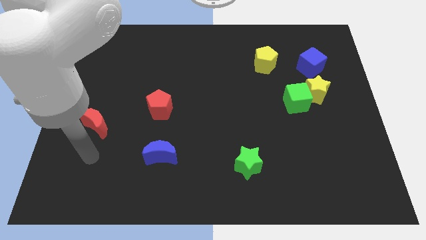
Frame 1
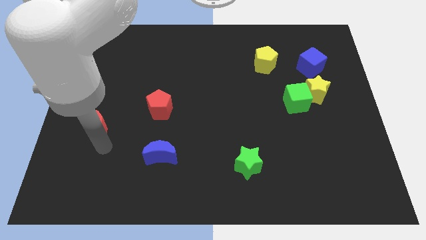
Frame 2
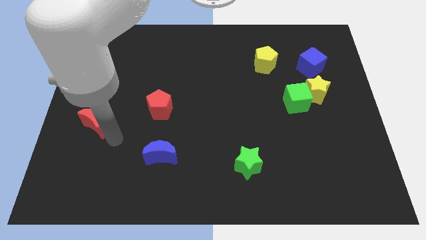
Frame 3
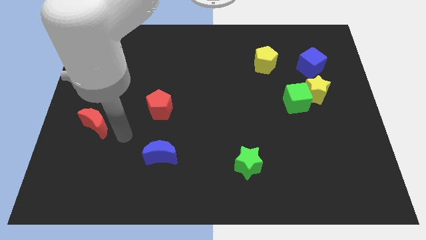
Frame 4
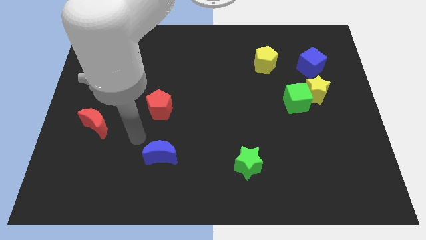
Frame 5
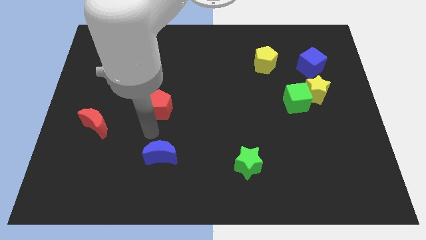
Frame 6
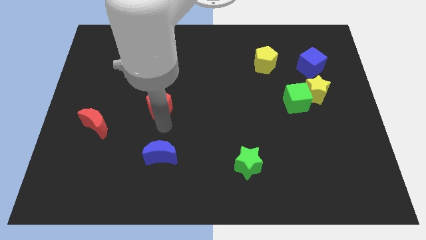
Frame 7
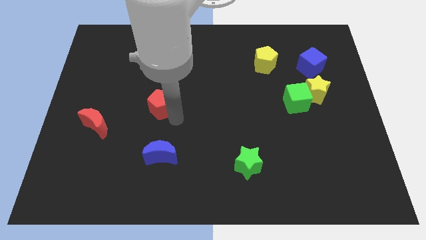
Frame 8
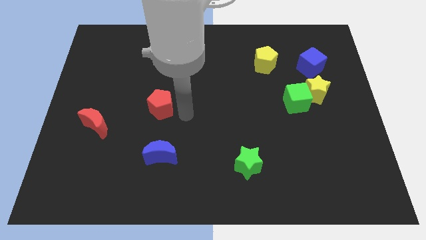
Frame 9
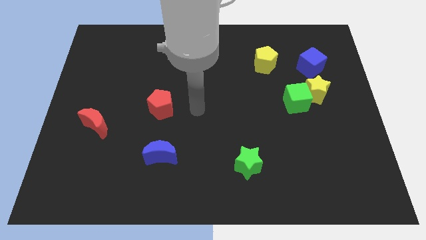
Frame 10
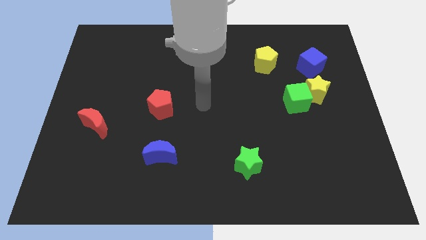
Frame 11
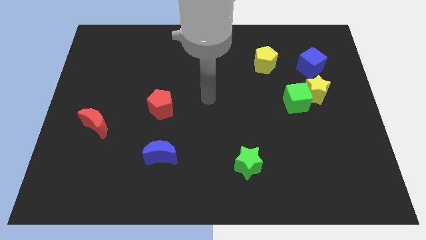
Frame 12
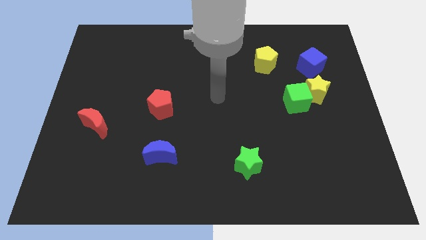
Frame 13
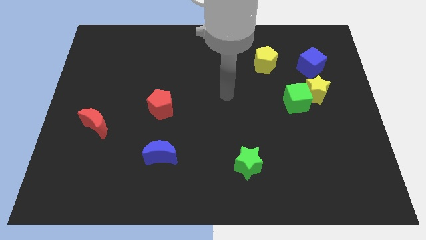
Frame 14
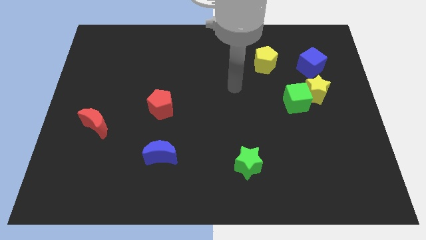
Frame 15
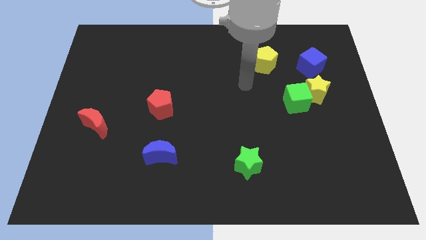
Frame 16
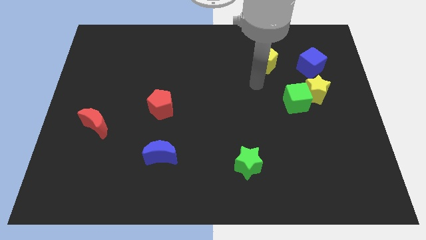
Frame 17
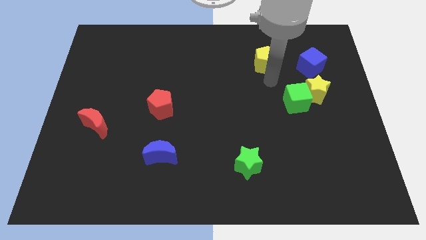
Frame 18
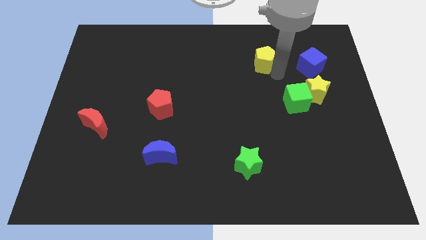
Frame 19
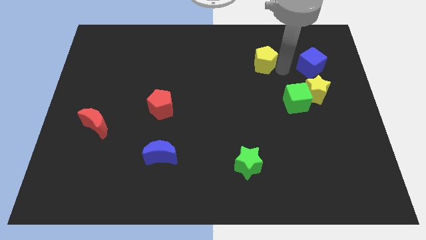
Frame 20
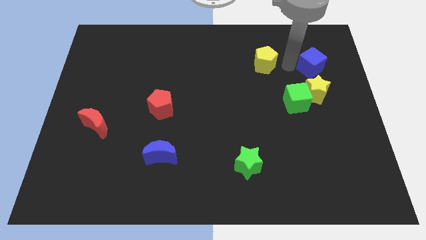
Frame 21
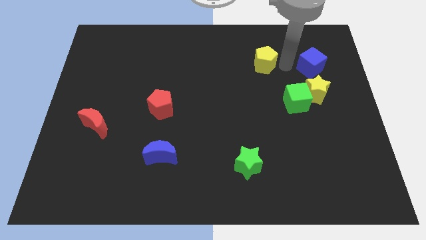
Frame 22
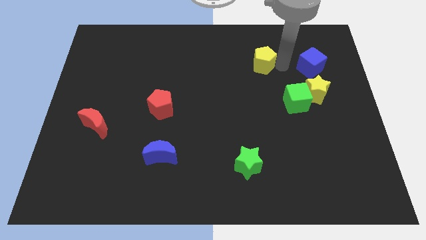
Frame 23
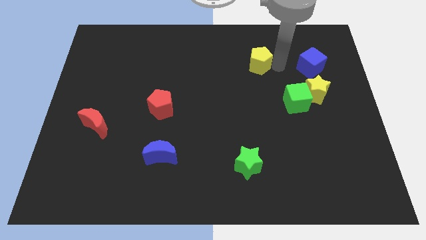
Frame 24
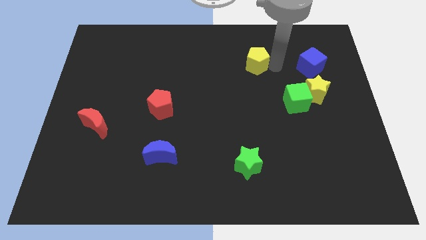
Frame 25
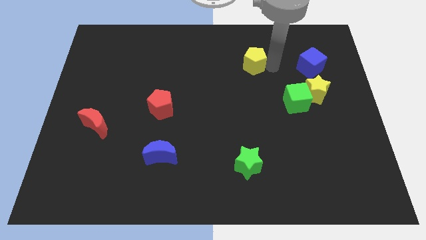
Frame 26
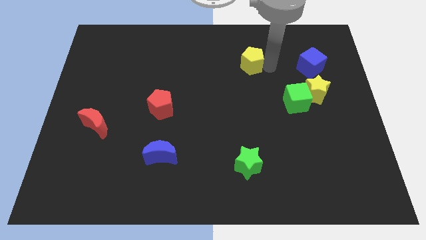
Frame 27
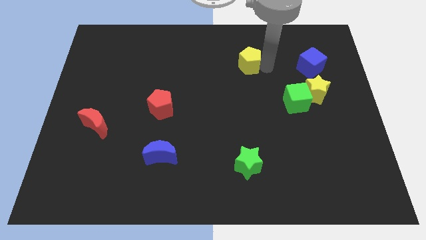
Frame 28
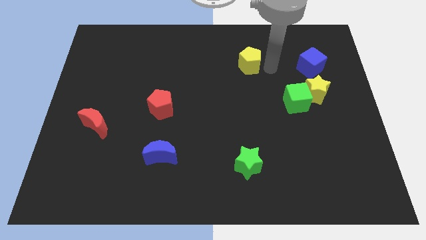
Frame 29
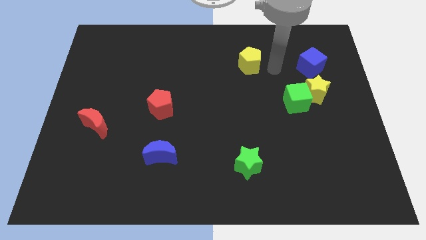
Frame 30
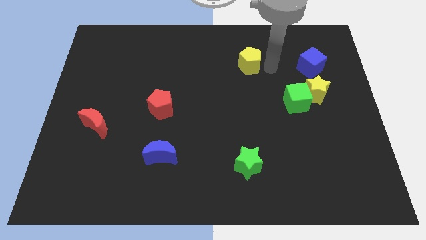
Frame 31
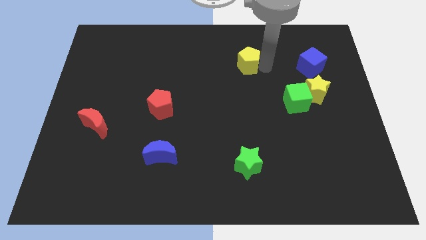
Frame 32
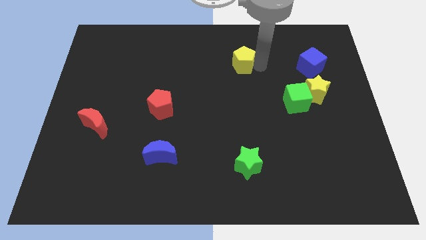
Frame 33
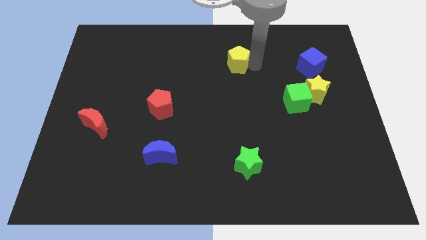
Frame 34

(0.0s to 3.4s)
push the yellow pentagon to the left a little bit

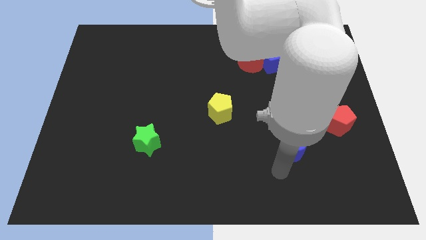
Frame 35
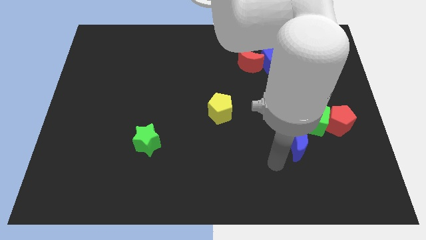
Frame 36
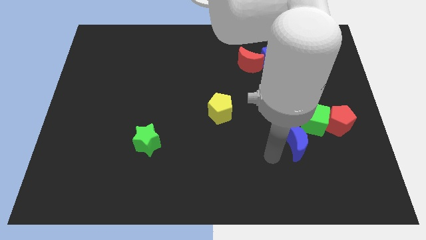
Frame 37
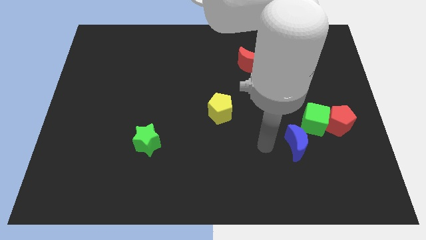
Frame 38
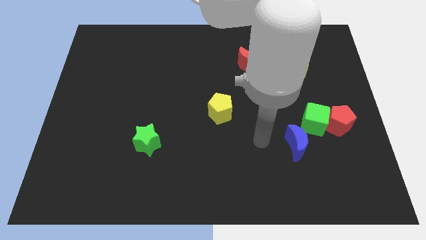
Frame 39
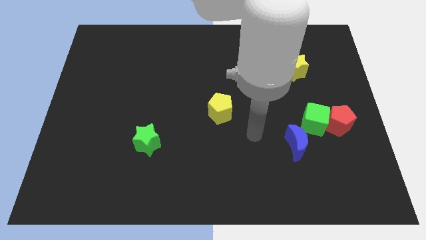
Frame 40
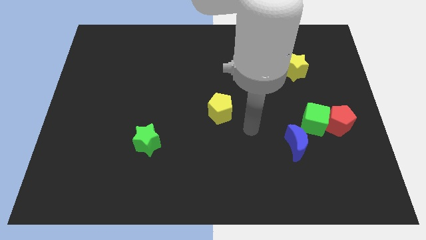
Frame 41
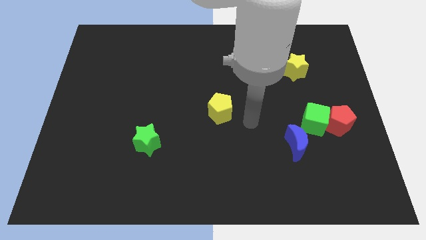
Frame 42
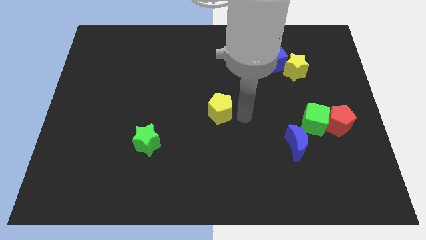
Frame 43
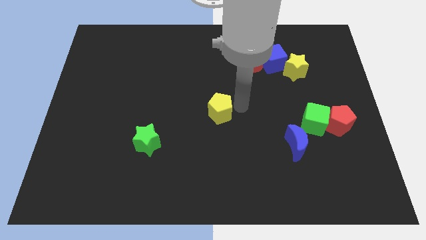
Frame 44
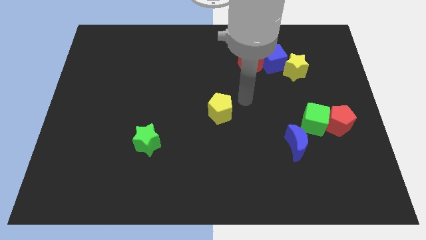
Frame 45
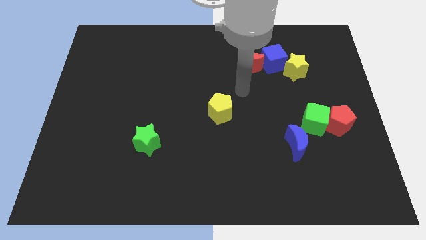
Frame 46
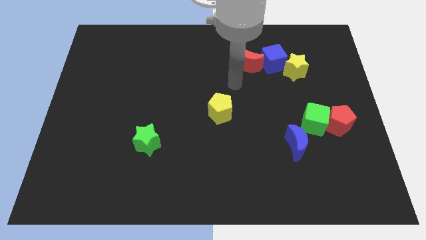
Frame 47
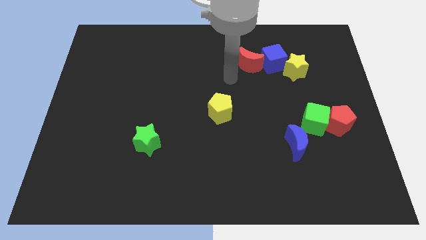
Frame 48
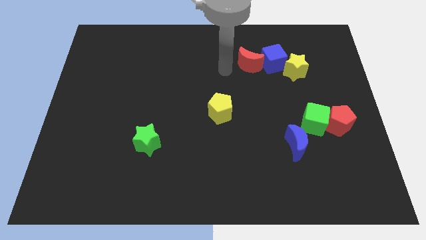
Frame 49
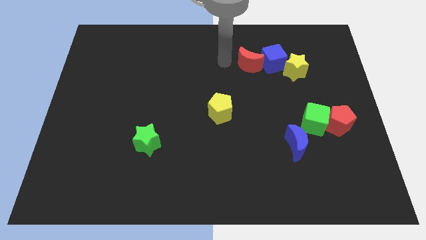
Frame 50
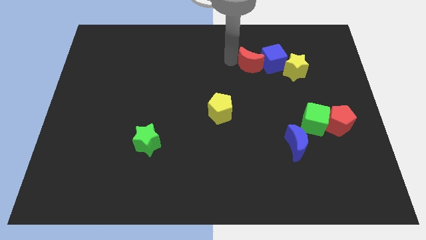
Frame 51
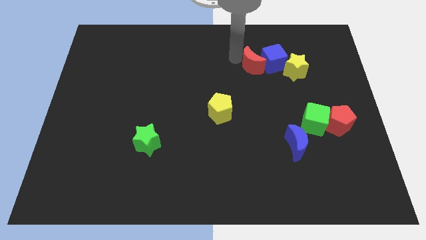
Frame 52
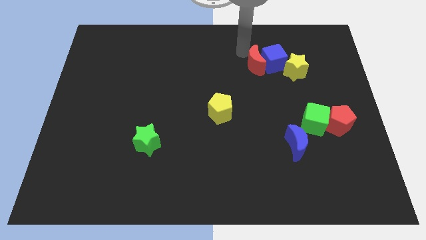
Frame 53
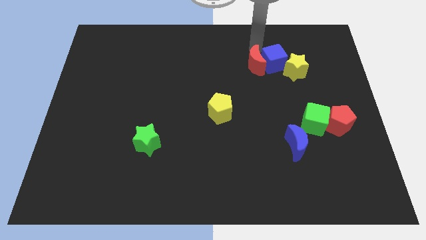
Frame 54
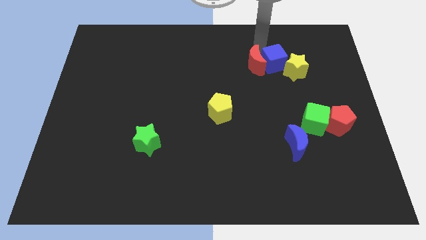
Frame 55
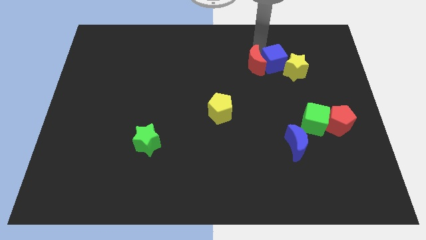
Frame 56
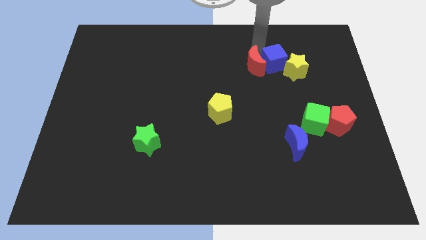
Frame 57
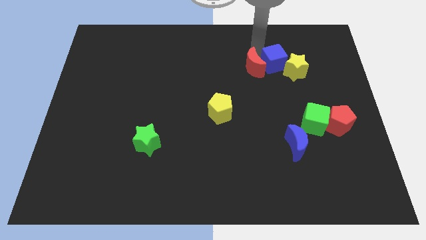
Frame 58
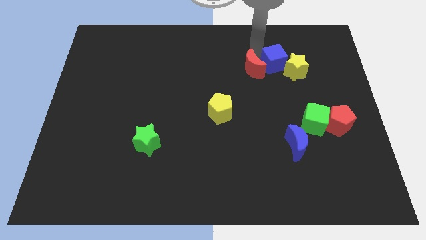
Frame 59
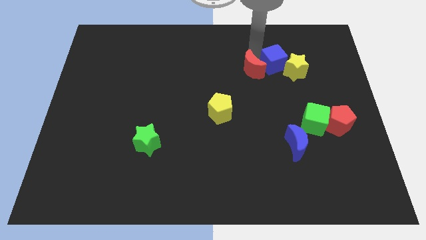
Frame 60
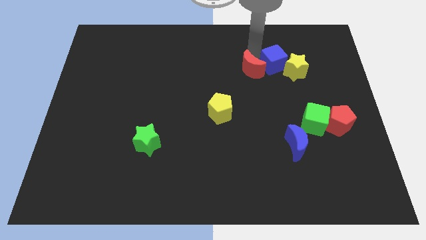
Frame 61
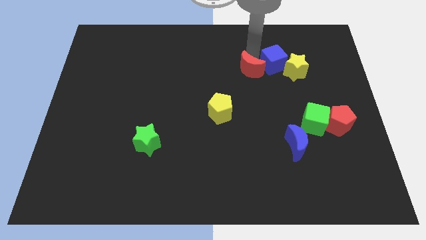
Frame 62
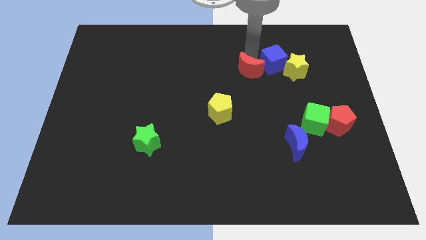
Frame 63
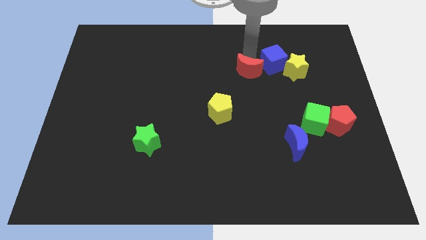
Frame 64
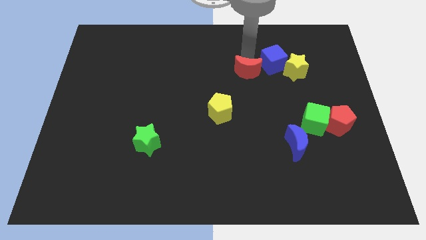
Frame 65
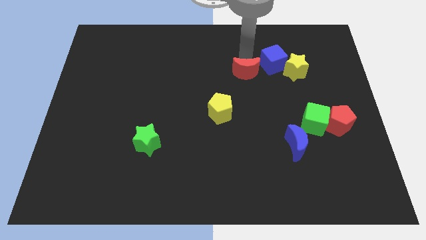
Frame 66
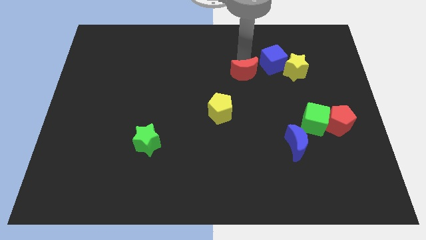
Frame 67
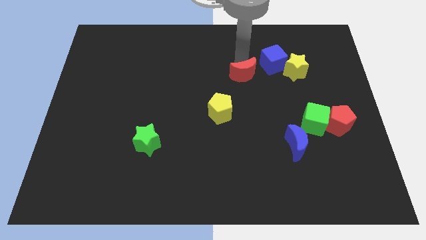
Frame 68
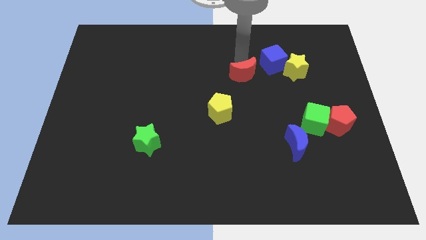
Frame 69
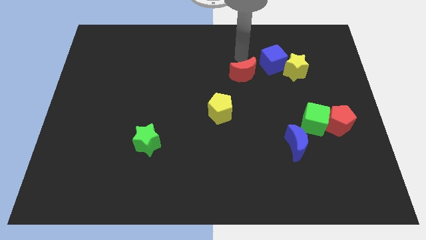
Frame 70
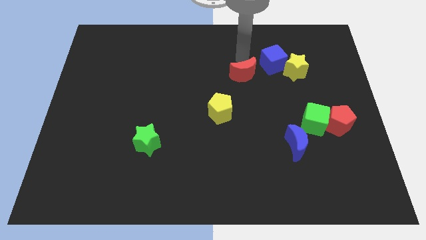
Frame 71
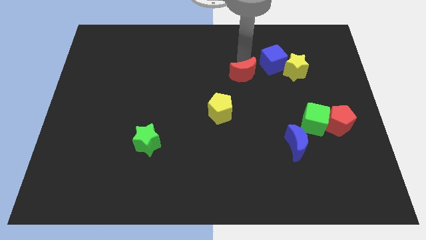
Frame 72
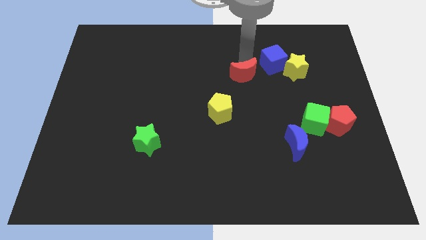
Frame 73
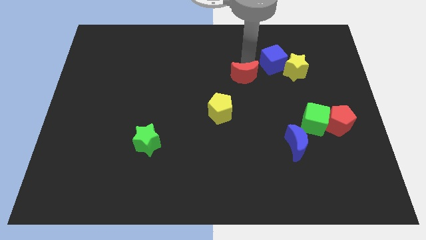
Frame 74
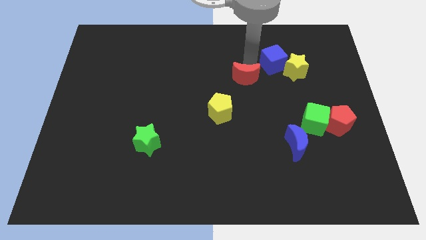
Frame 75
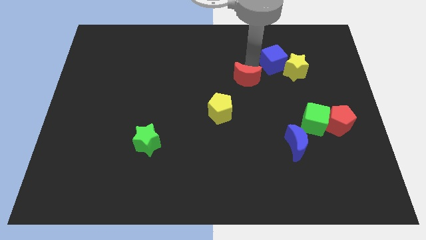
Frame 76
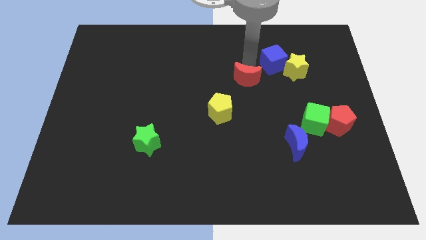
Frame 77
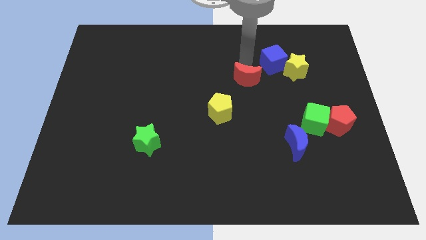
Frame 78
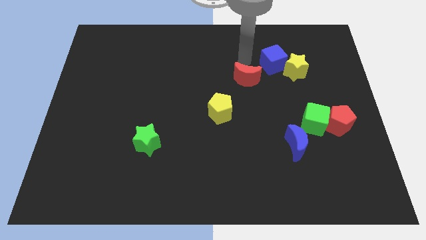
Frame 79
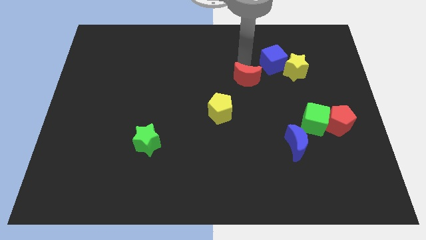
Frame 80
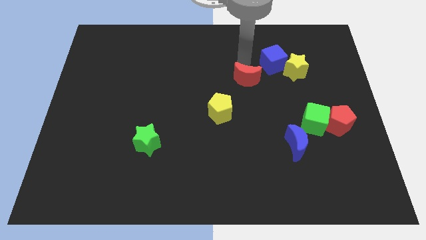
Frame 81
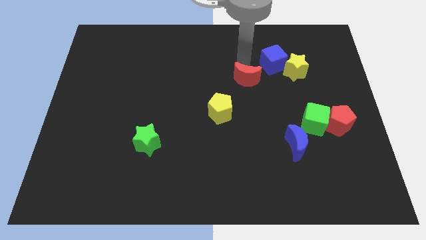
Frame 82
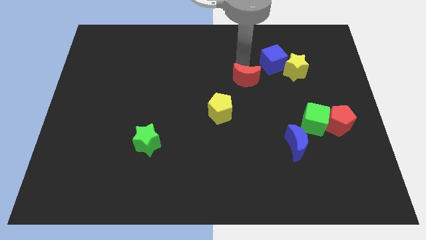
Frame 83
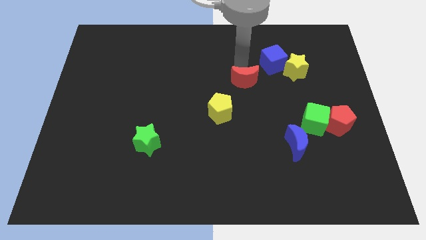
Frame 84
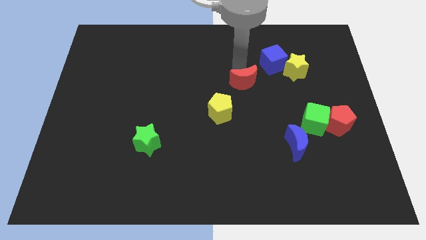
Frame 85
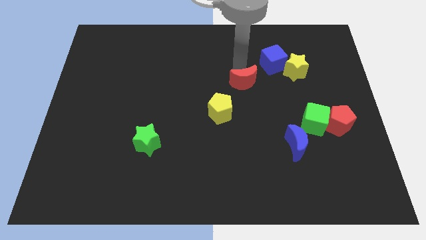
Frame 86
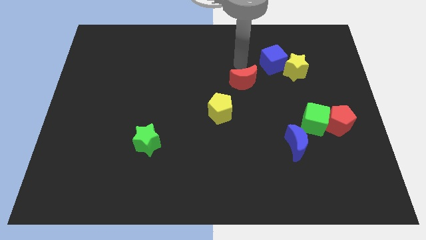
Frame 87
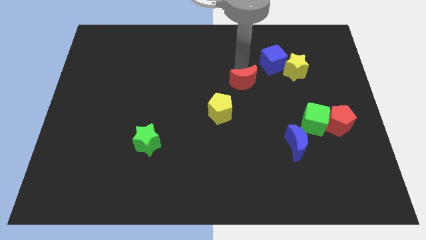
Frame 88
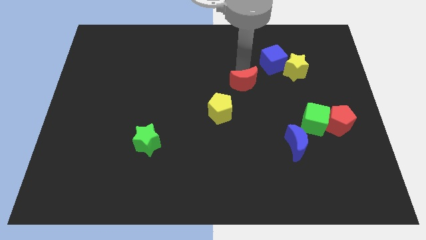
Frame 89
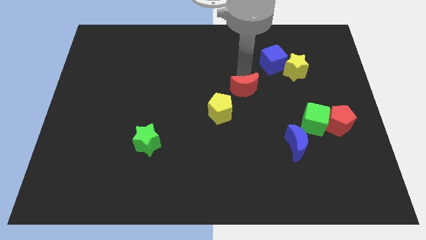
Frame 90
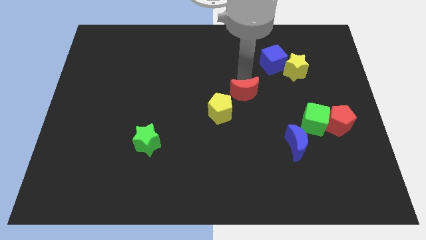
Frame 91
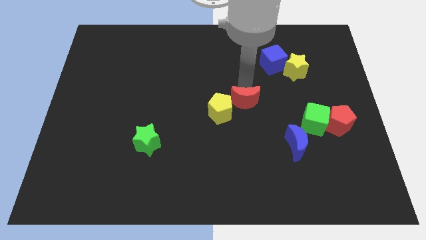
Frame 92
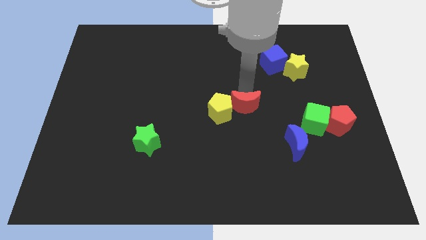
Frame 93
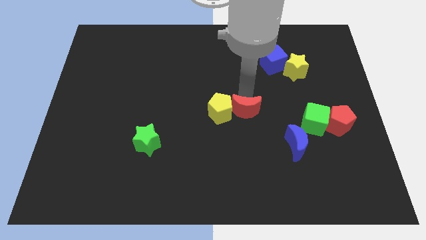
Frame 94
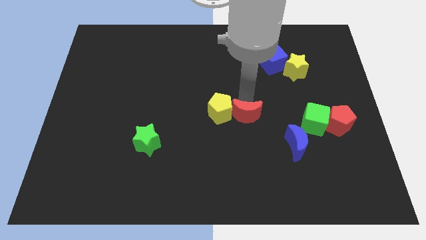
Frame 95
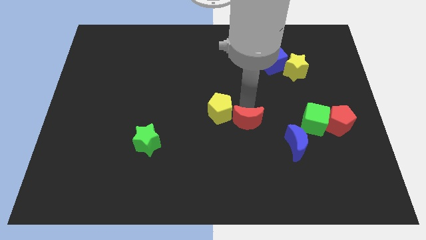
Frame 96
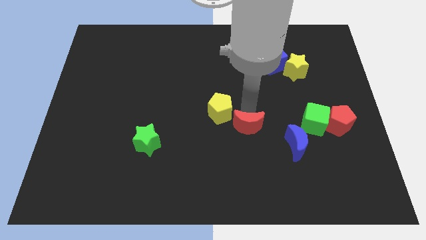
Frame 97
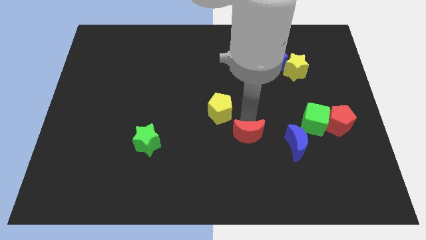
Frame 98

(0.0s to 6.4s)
move the red moon down
